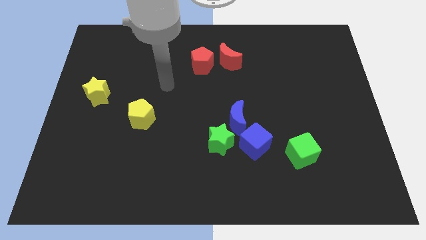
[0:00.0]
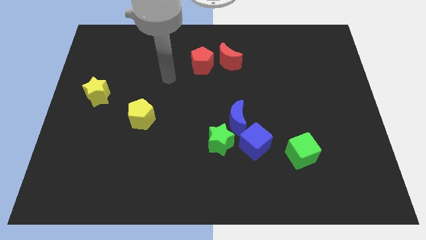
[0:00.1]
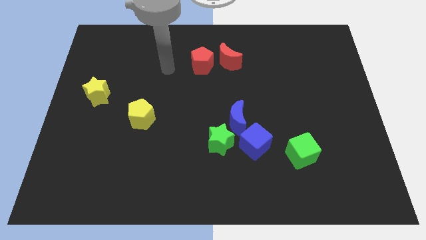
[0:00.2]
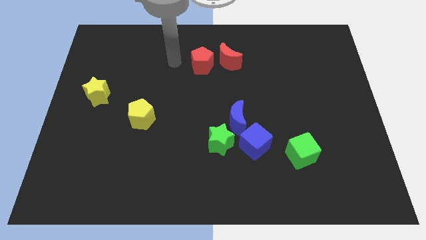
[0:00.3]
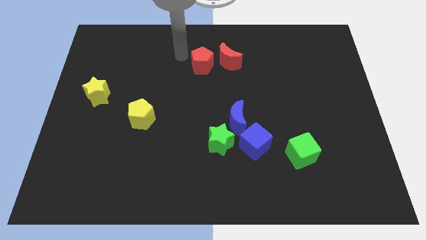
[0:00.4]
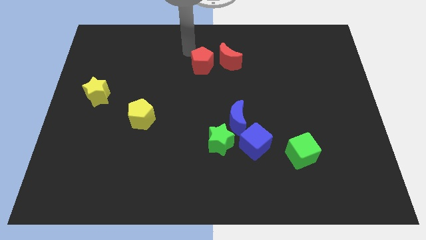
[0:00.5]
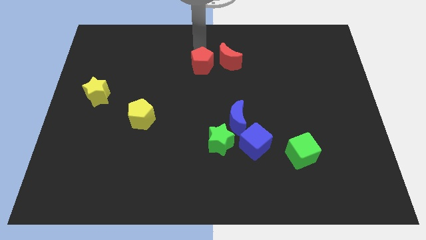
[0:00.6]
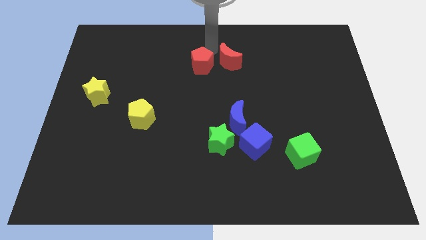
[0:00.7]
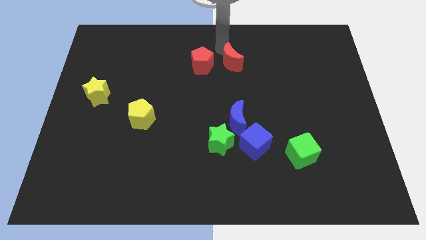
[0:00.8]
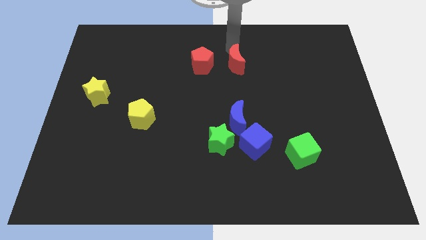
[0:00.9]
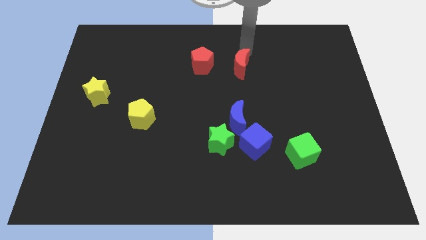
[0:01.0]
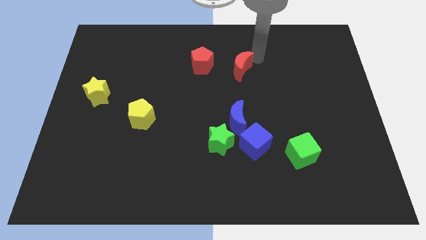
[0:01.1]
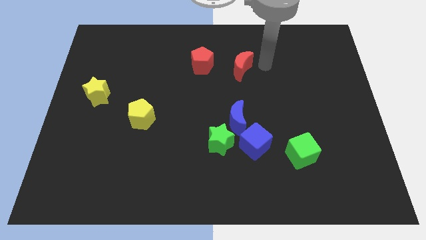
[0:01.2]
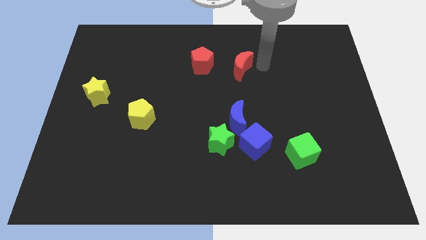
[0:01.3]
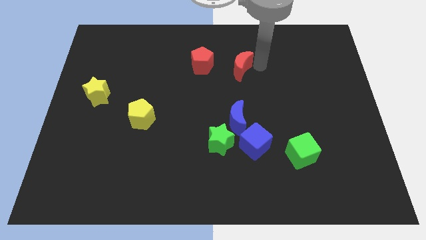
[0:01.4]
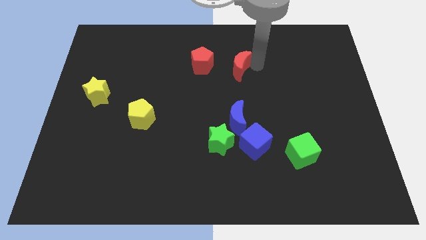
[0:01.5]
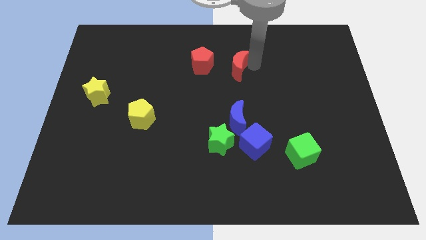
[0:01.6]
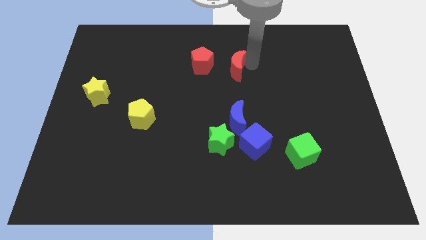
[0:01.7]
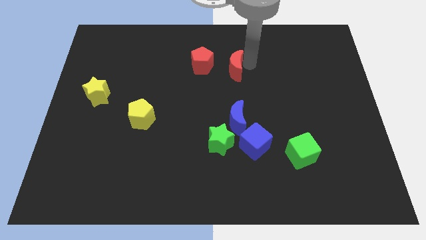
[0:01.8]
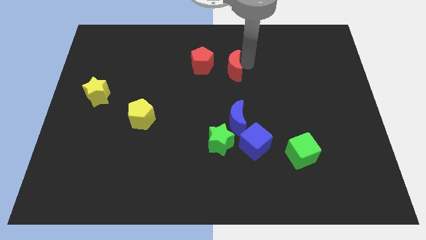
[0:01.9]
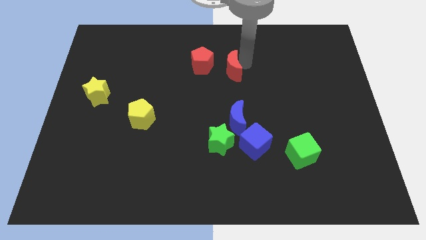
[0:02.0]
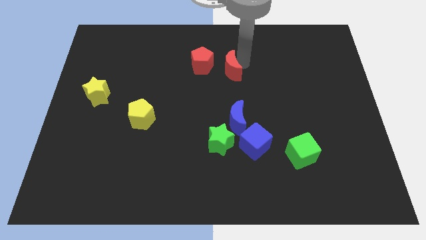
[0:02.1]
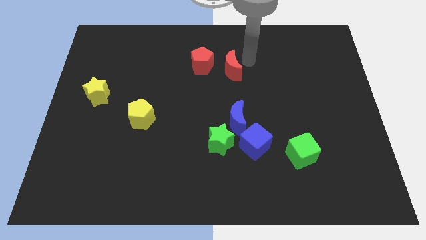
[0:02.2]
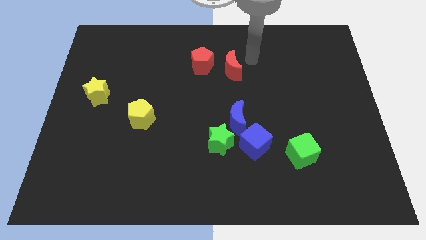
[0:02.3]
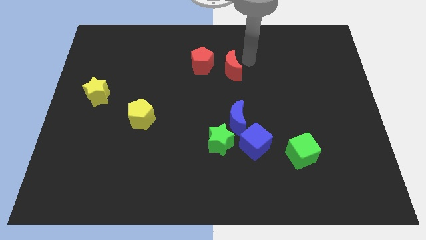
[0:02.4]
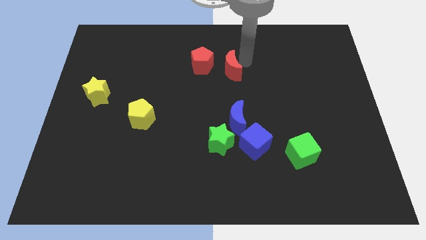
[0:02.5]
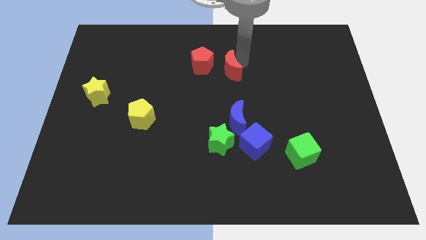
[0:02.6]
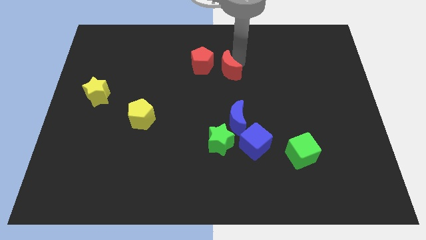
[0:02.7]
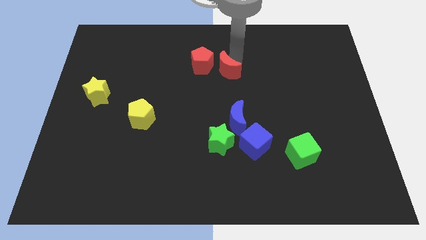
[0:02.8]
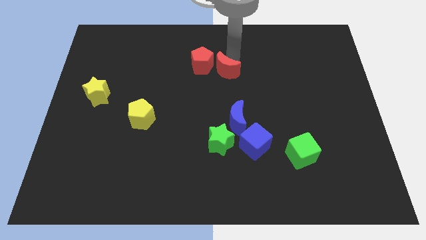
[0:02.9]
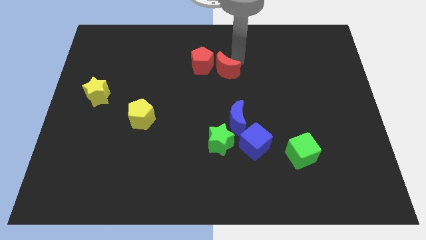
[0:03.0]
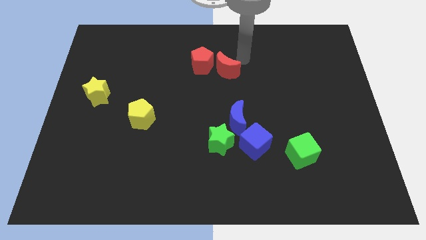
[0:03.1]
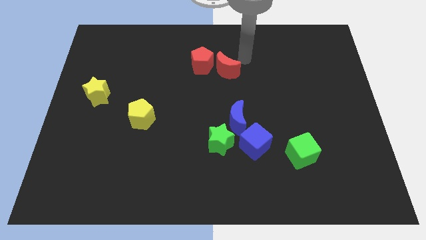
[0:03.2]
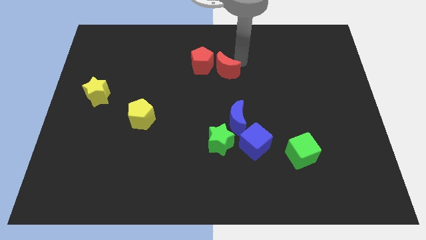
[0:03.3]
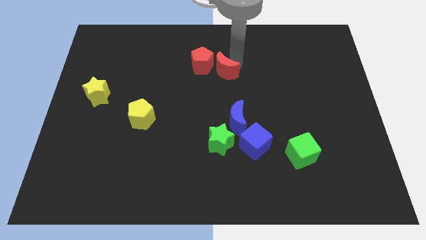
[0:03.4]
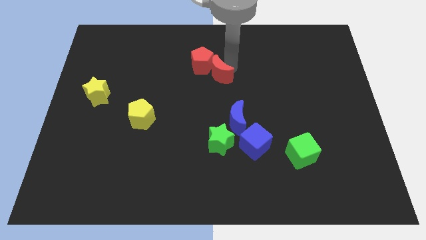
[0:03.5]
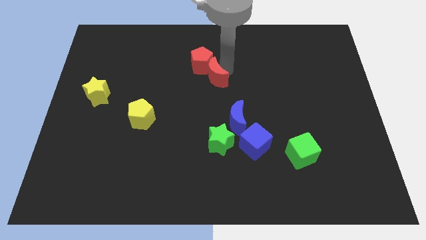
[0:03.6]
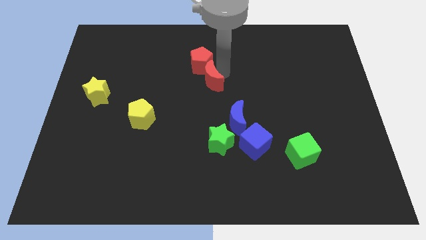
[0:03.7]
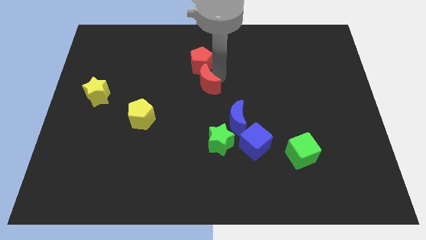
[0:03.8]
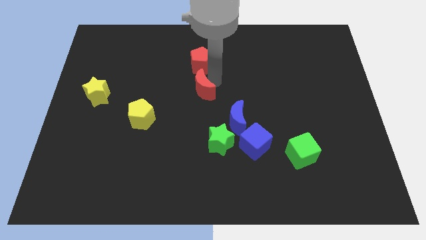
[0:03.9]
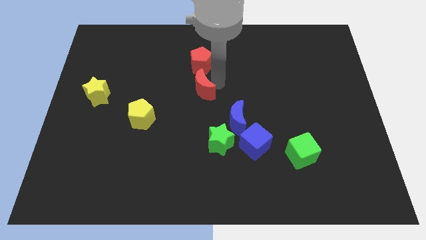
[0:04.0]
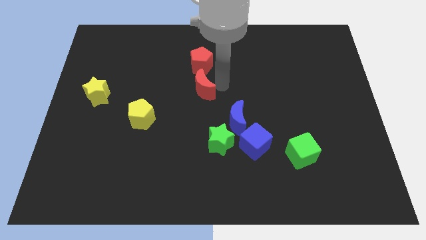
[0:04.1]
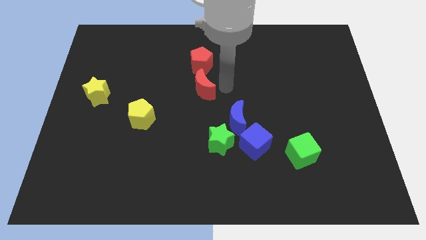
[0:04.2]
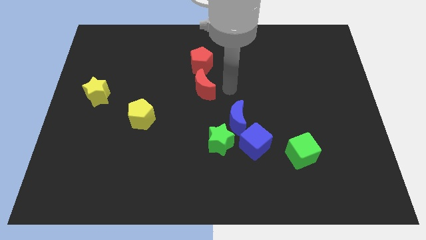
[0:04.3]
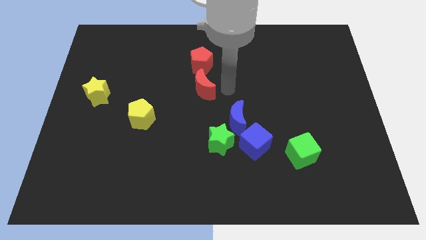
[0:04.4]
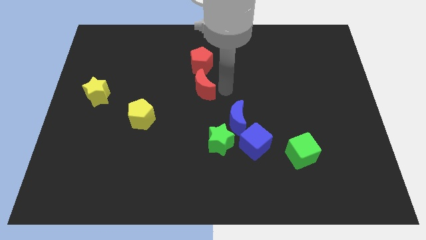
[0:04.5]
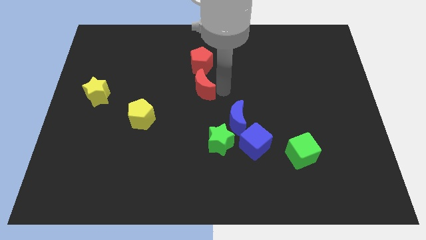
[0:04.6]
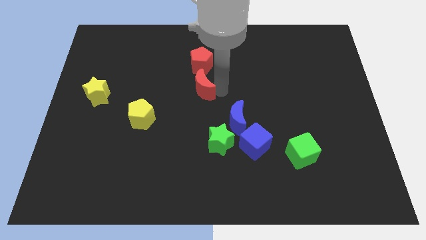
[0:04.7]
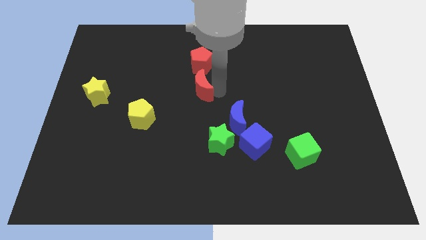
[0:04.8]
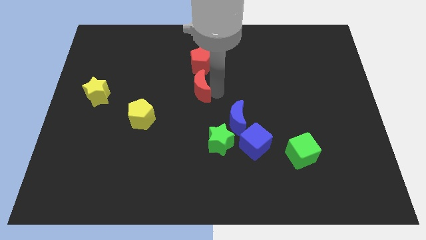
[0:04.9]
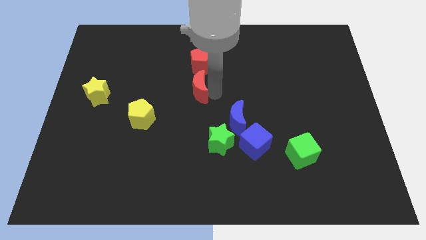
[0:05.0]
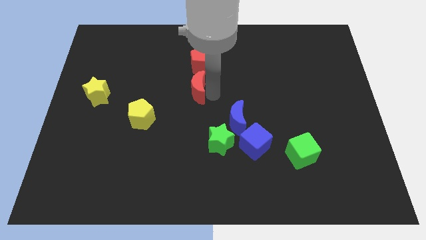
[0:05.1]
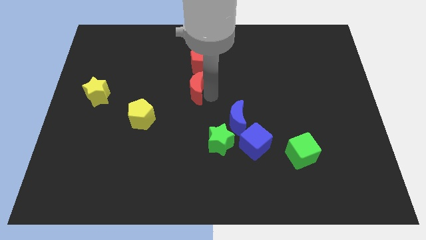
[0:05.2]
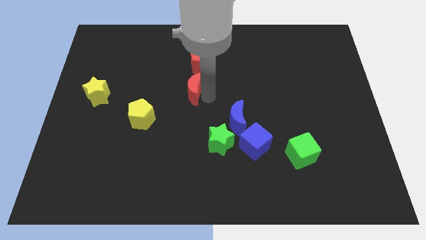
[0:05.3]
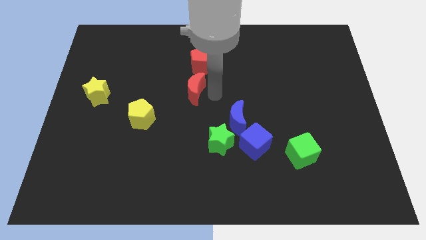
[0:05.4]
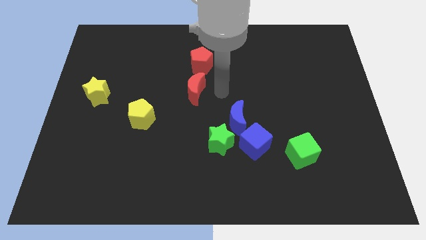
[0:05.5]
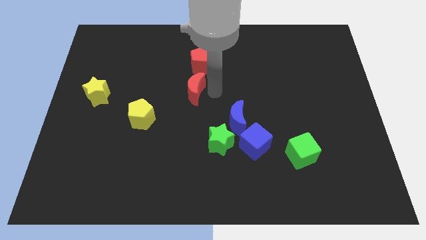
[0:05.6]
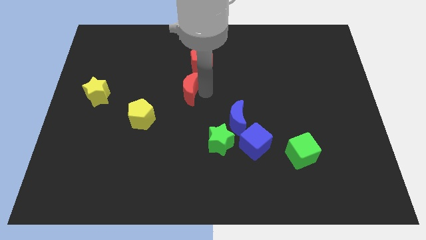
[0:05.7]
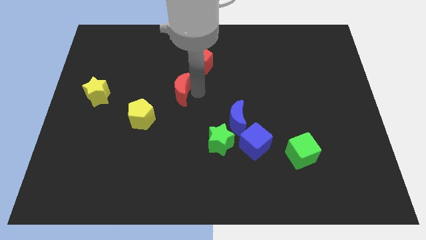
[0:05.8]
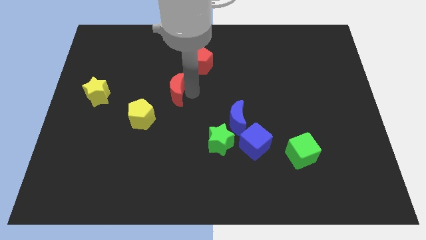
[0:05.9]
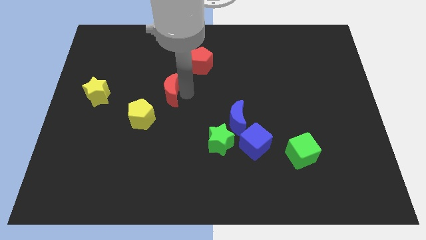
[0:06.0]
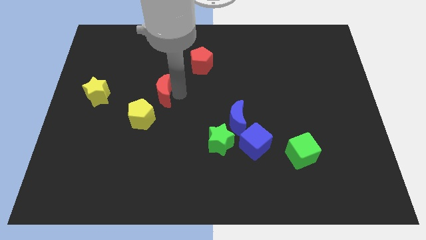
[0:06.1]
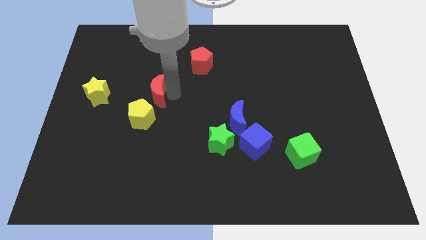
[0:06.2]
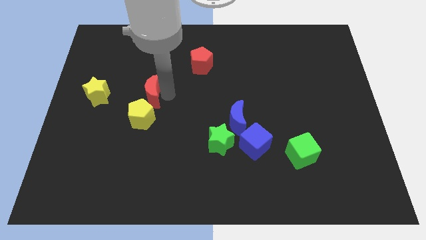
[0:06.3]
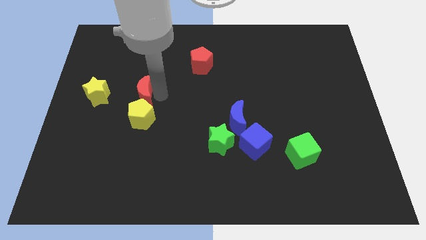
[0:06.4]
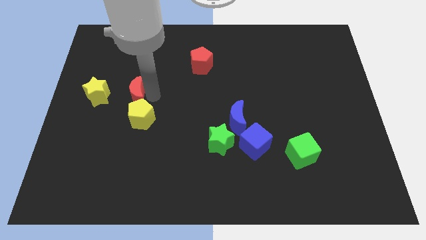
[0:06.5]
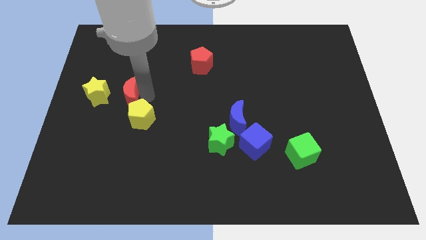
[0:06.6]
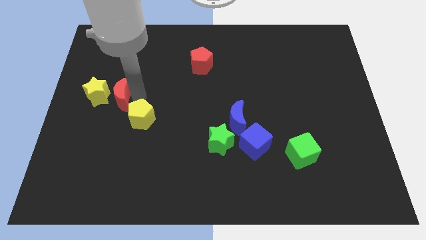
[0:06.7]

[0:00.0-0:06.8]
put the red moon towards the yellow star

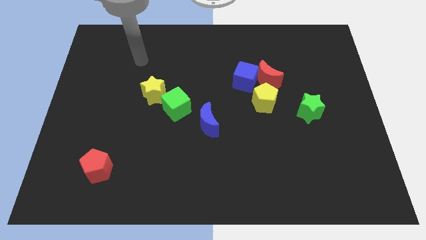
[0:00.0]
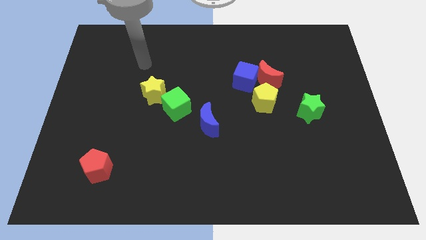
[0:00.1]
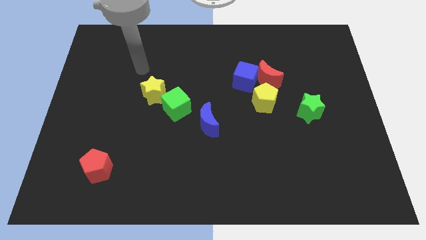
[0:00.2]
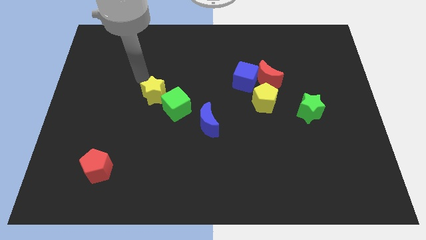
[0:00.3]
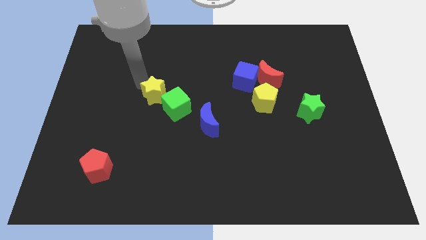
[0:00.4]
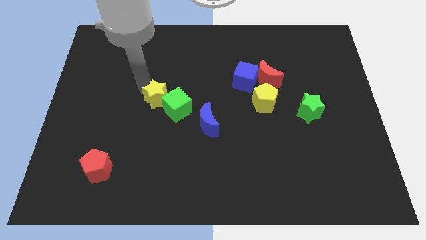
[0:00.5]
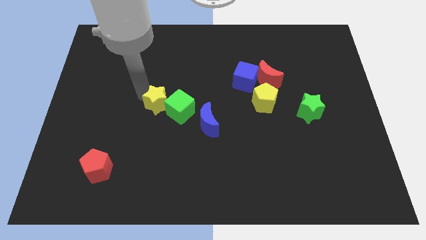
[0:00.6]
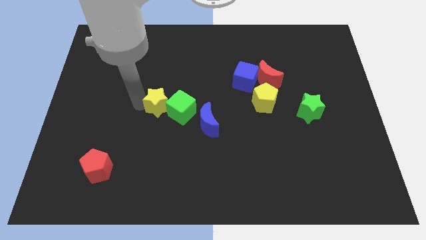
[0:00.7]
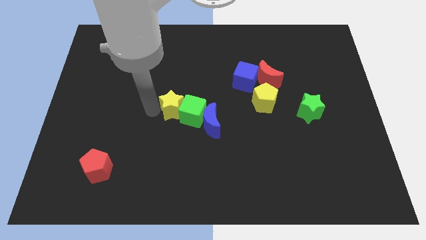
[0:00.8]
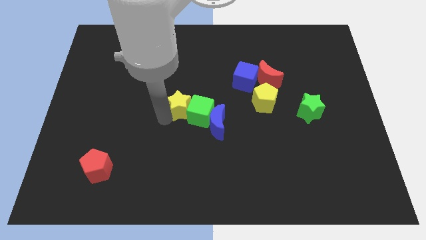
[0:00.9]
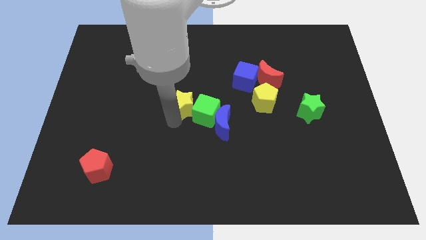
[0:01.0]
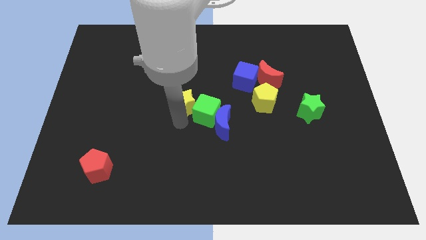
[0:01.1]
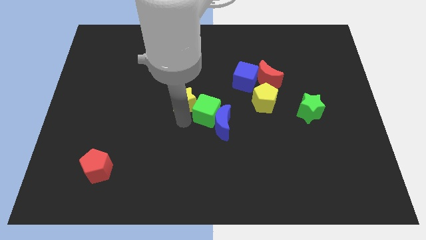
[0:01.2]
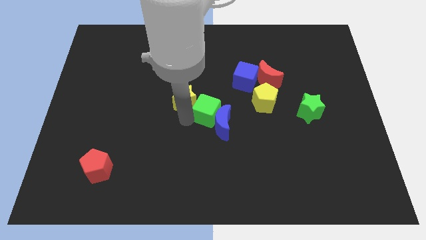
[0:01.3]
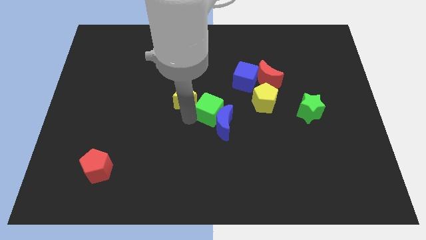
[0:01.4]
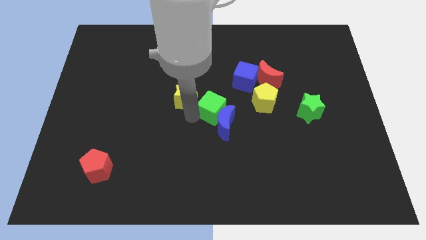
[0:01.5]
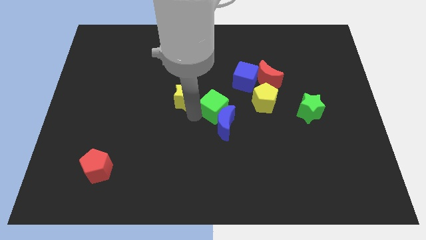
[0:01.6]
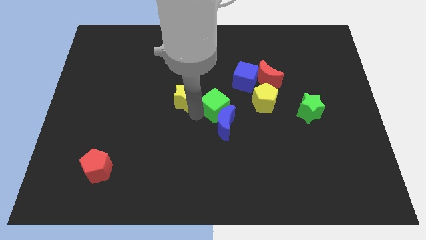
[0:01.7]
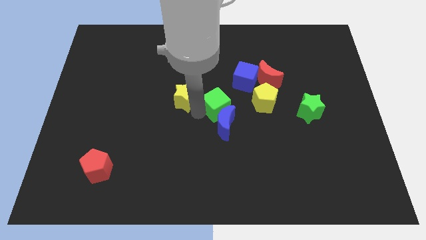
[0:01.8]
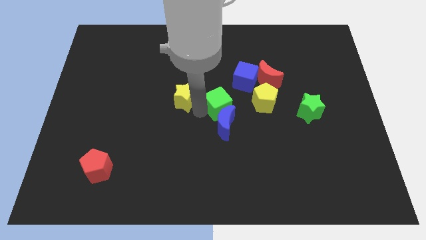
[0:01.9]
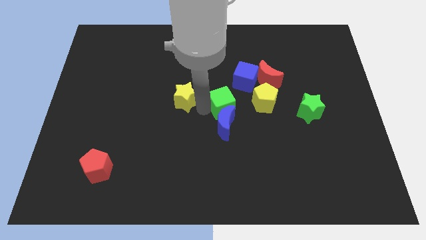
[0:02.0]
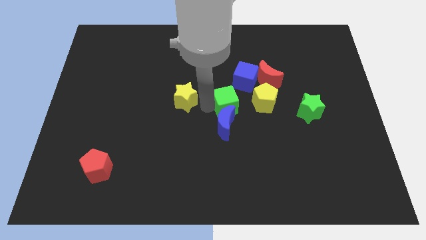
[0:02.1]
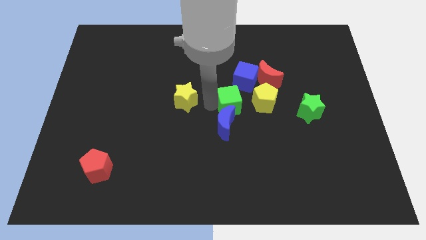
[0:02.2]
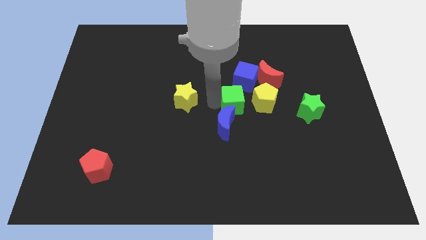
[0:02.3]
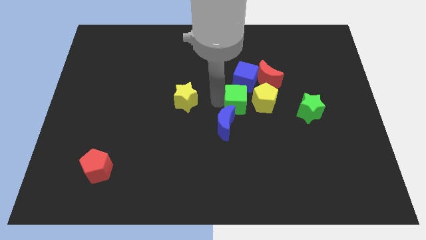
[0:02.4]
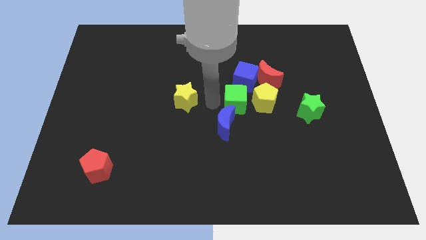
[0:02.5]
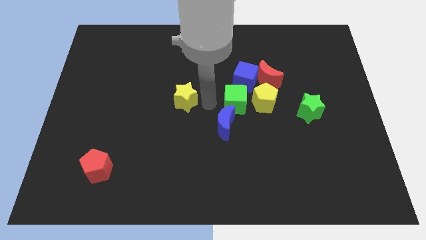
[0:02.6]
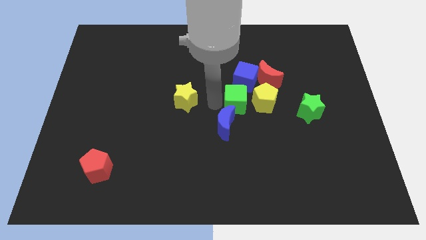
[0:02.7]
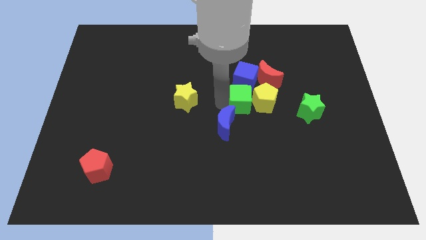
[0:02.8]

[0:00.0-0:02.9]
put the green cube next to the yellow pentagon
